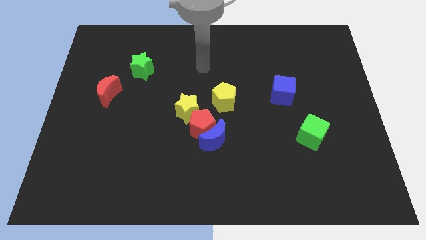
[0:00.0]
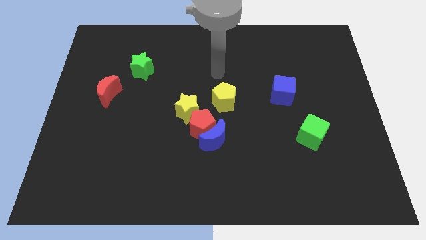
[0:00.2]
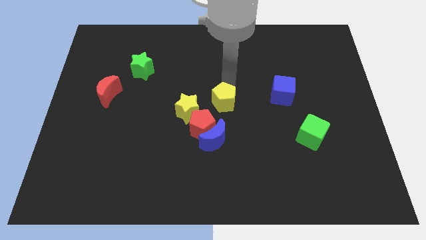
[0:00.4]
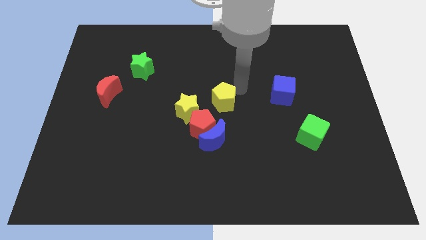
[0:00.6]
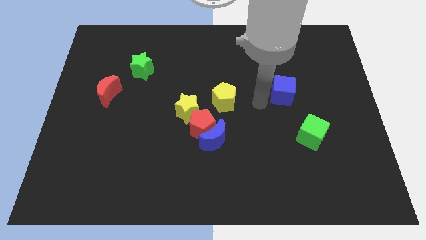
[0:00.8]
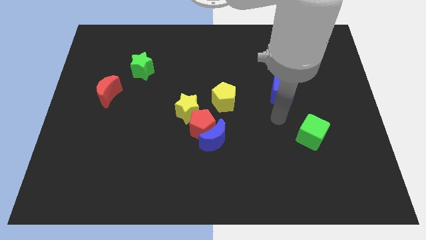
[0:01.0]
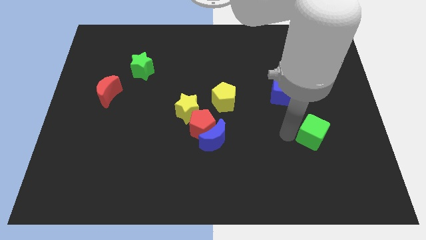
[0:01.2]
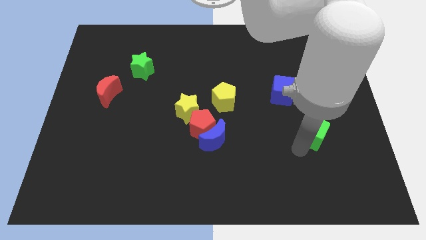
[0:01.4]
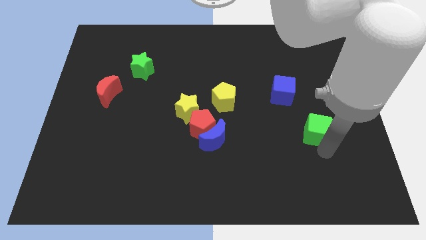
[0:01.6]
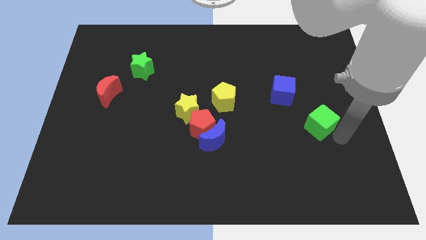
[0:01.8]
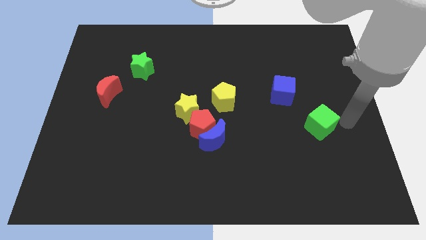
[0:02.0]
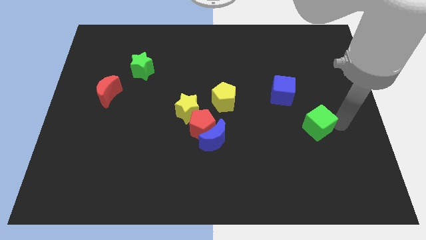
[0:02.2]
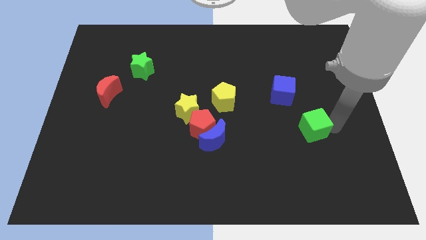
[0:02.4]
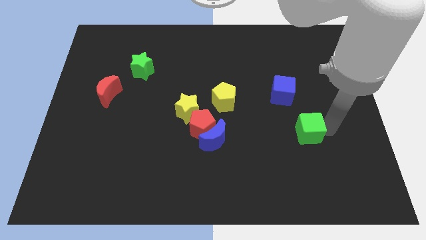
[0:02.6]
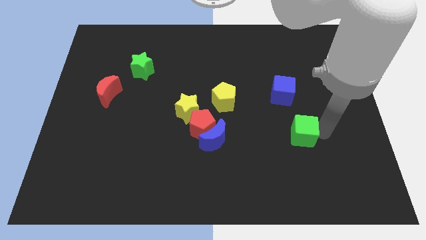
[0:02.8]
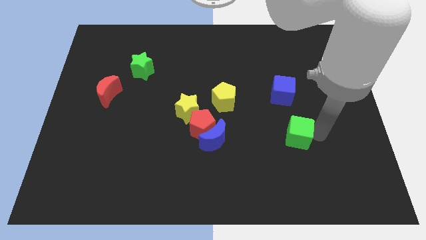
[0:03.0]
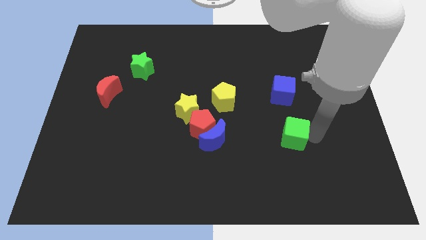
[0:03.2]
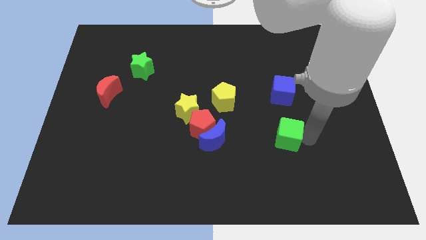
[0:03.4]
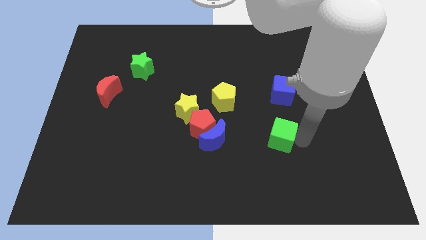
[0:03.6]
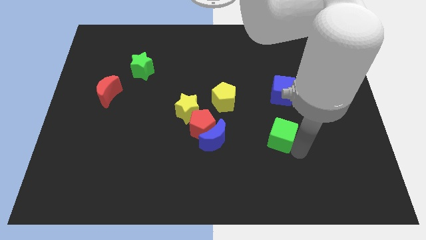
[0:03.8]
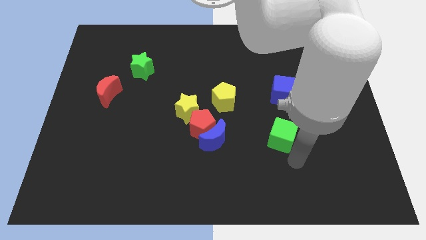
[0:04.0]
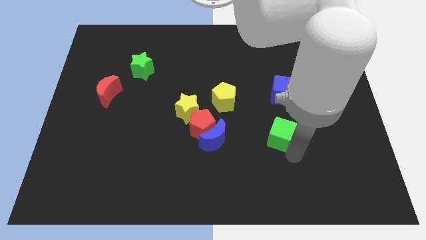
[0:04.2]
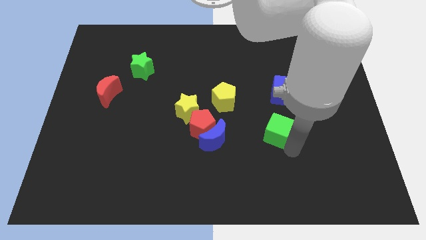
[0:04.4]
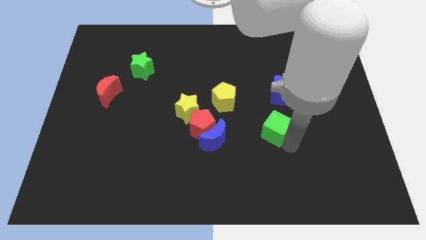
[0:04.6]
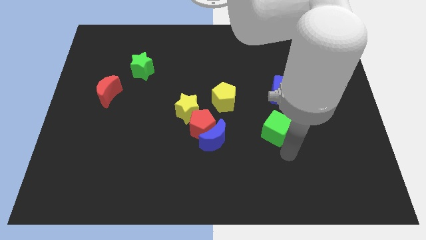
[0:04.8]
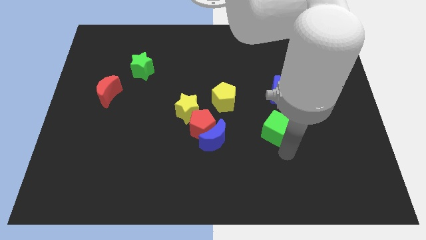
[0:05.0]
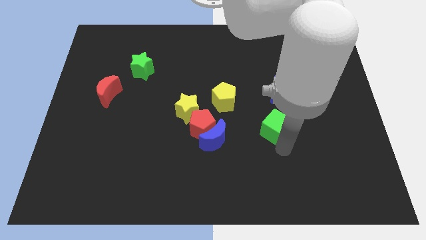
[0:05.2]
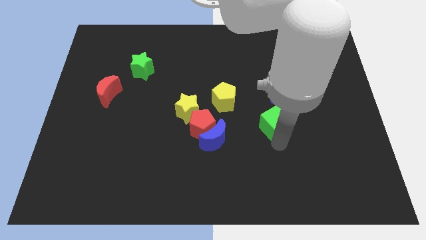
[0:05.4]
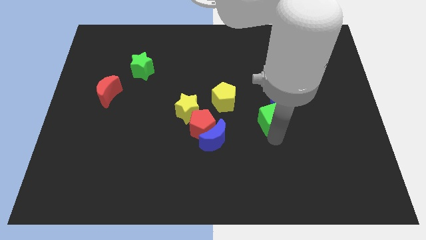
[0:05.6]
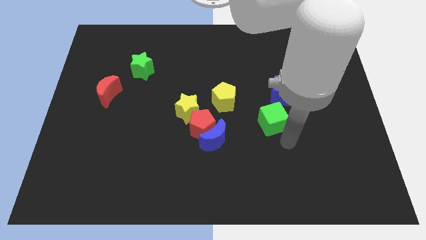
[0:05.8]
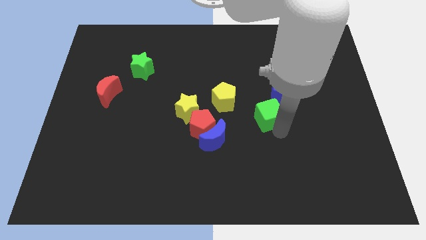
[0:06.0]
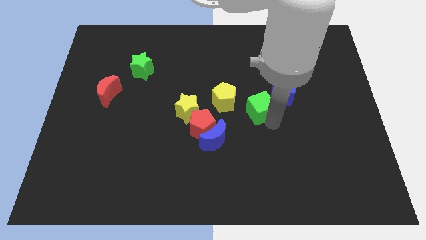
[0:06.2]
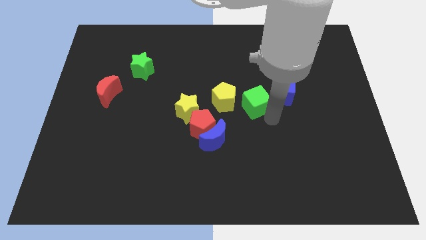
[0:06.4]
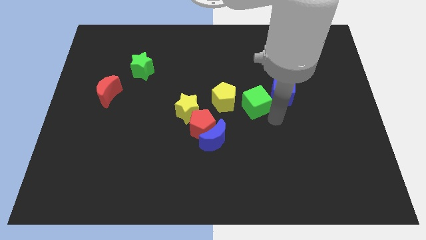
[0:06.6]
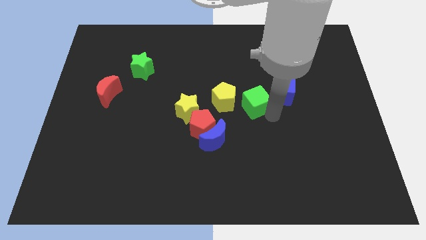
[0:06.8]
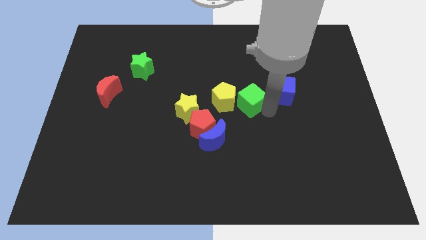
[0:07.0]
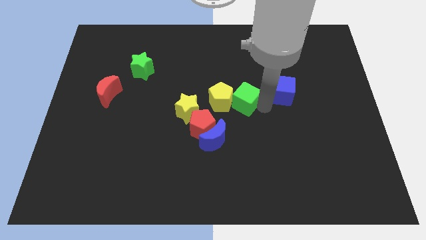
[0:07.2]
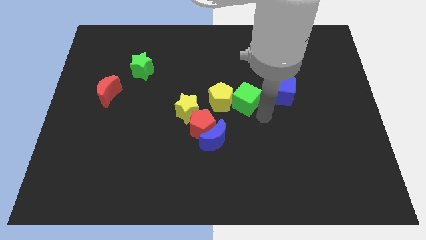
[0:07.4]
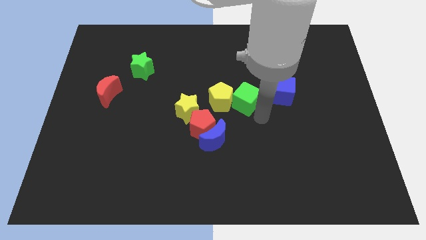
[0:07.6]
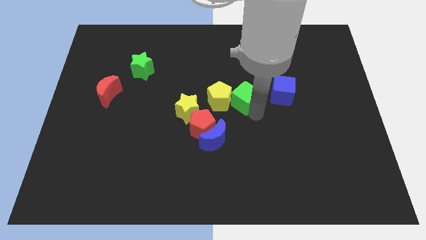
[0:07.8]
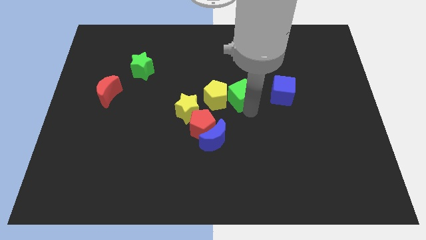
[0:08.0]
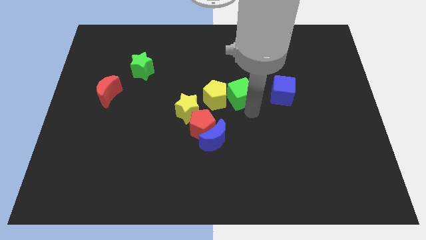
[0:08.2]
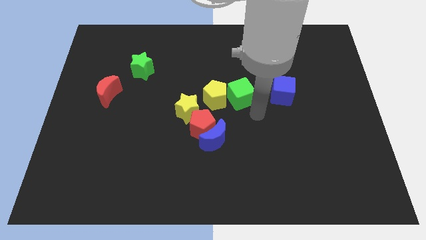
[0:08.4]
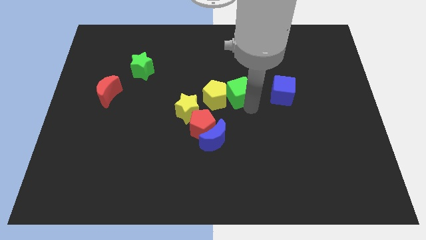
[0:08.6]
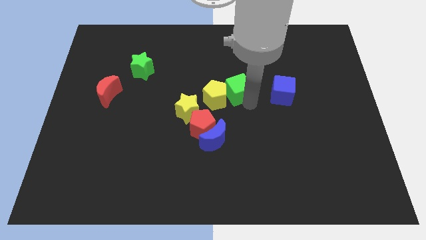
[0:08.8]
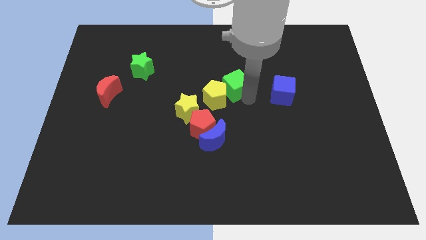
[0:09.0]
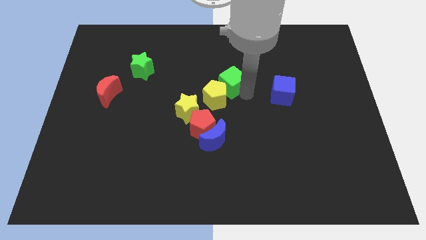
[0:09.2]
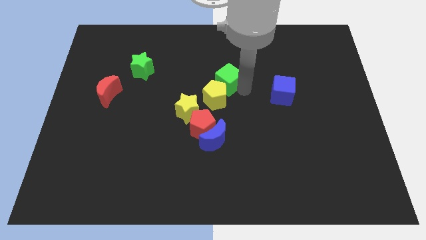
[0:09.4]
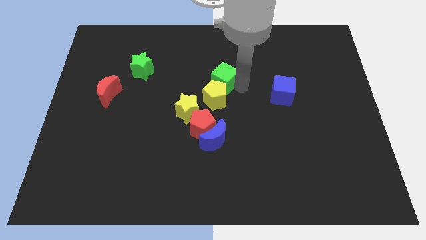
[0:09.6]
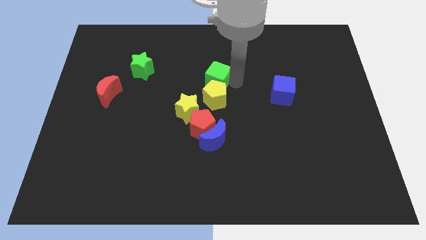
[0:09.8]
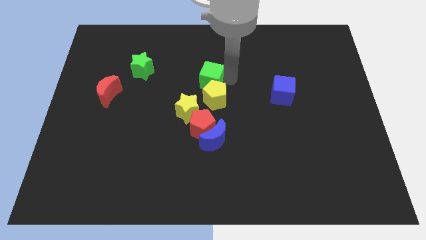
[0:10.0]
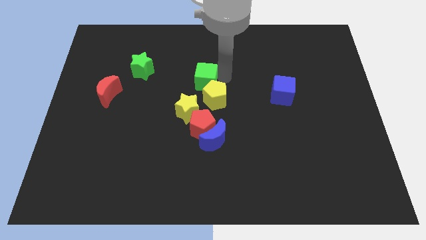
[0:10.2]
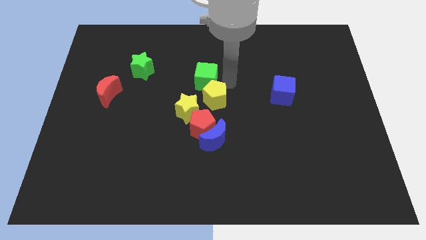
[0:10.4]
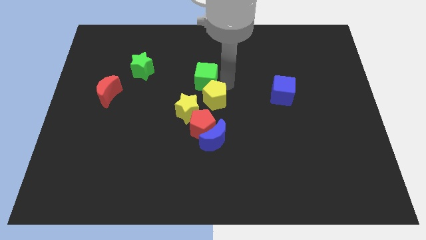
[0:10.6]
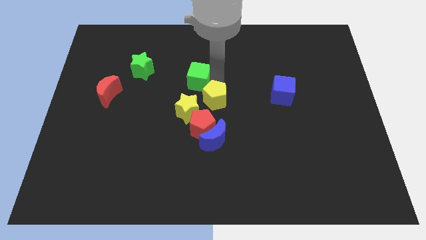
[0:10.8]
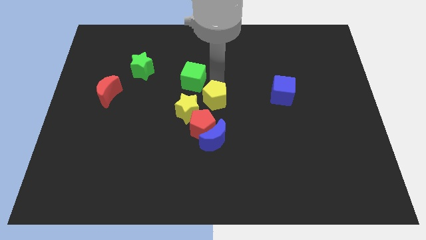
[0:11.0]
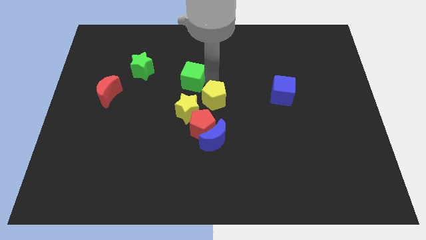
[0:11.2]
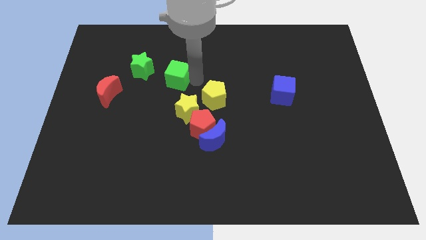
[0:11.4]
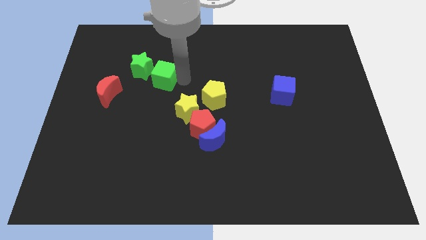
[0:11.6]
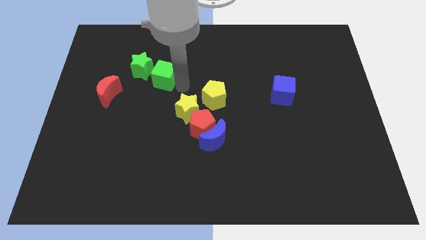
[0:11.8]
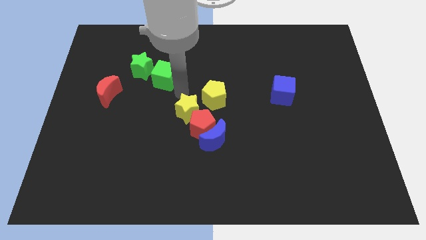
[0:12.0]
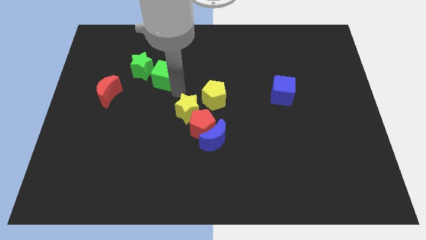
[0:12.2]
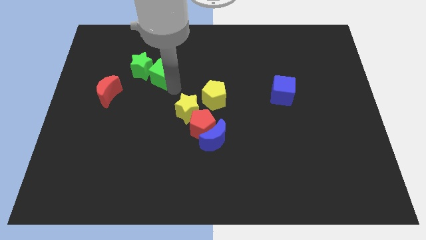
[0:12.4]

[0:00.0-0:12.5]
put the green cube towards the green star

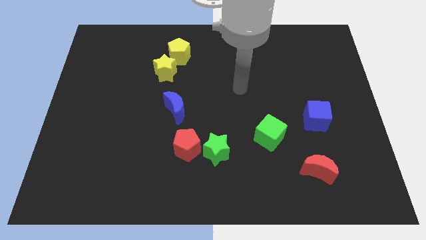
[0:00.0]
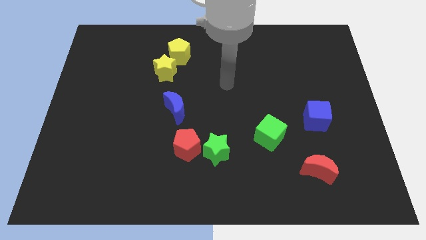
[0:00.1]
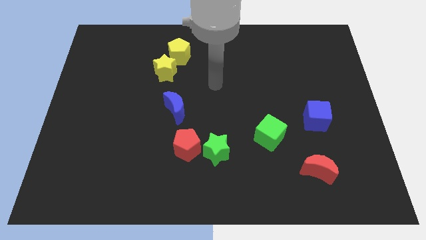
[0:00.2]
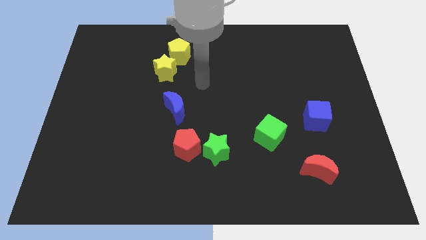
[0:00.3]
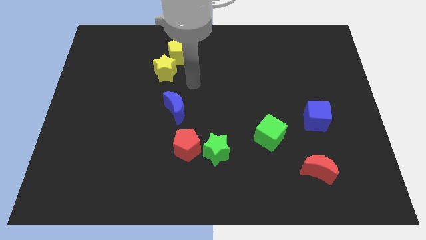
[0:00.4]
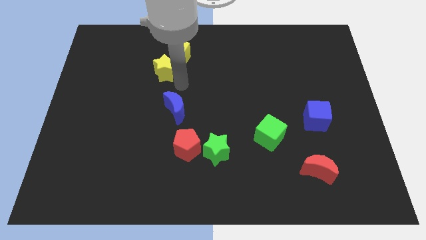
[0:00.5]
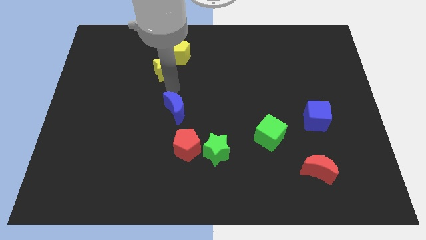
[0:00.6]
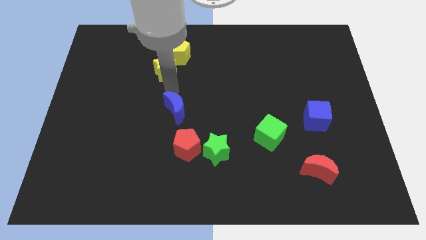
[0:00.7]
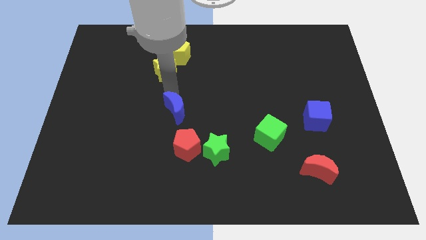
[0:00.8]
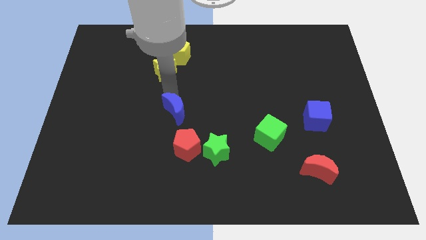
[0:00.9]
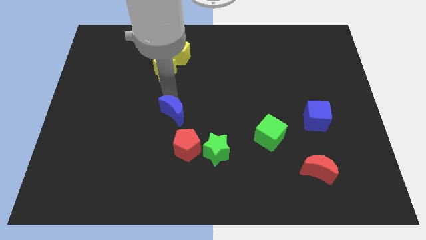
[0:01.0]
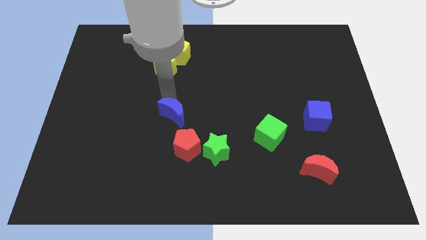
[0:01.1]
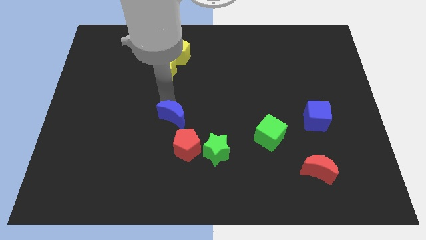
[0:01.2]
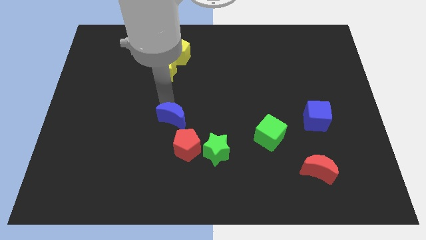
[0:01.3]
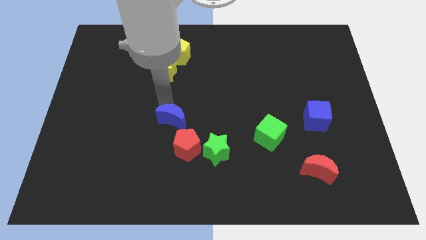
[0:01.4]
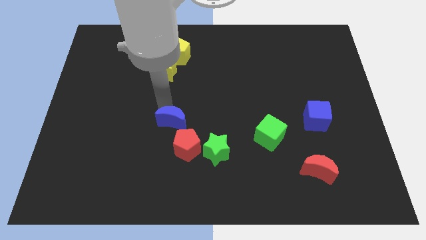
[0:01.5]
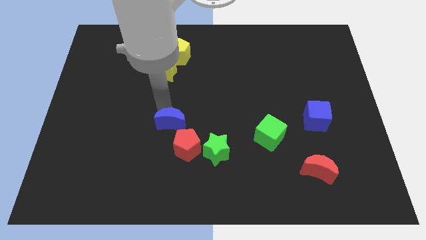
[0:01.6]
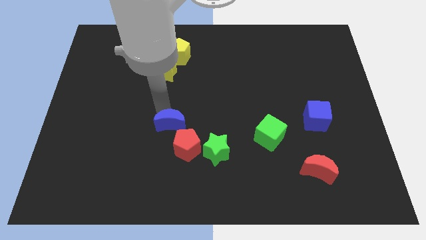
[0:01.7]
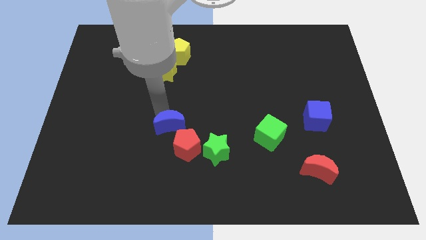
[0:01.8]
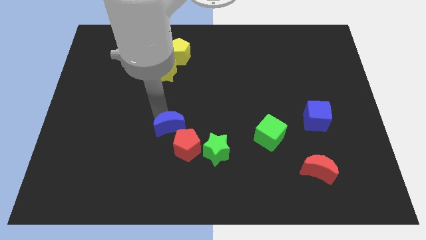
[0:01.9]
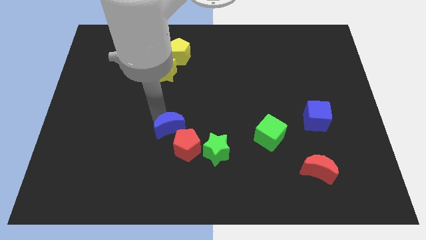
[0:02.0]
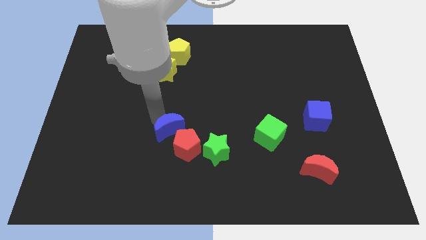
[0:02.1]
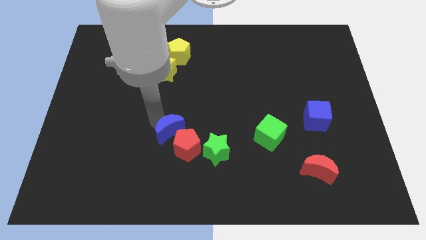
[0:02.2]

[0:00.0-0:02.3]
push the blue moon to the red pentagon

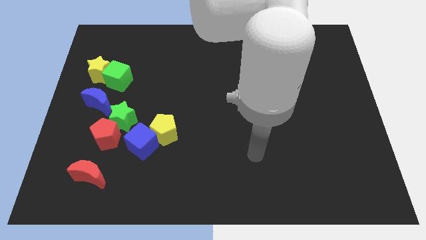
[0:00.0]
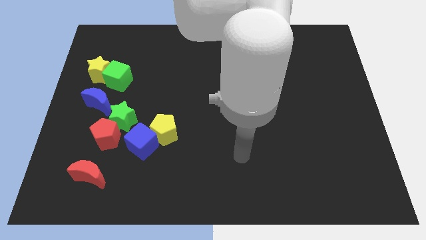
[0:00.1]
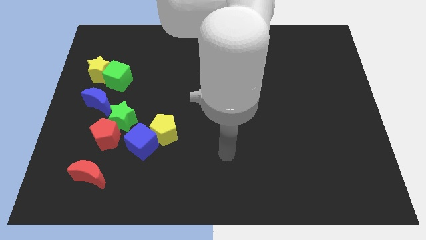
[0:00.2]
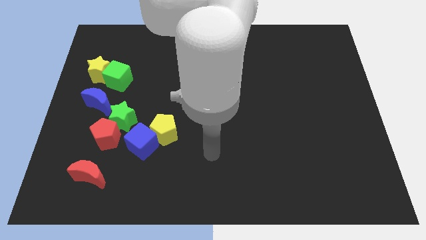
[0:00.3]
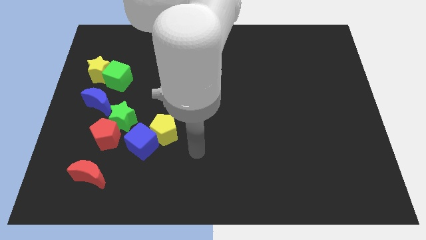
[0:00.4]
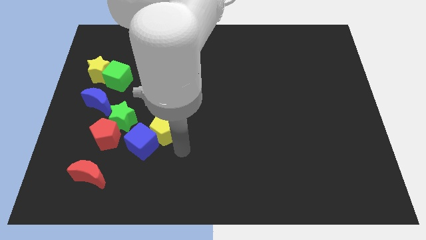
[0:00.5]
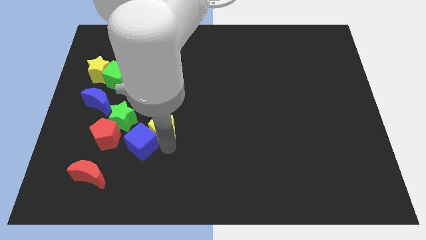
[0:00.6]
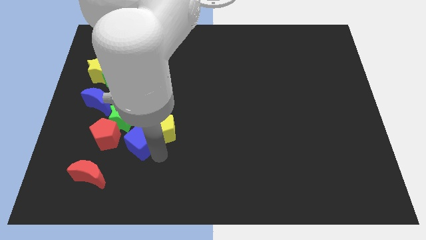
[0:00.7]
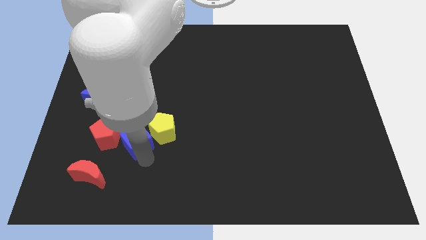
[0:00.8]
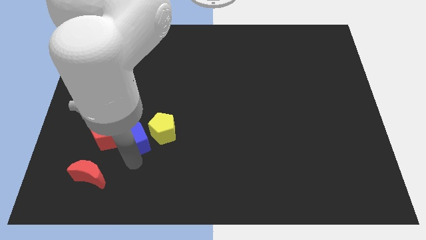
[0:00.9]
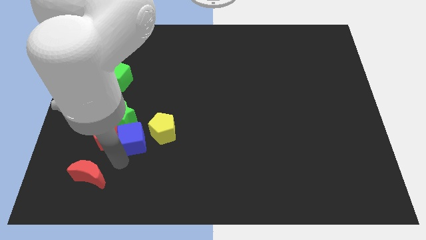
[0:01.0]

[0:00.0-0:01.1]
slide the red pentagon close to the blue cube
